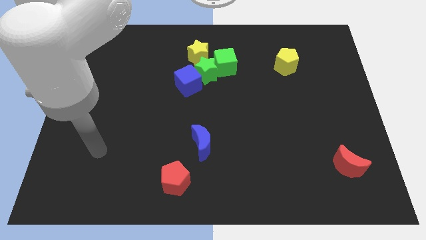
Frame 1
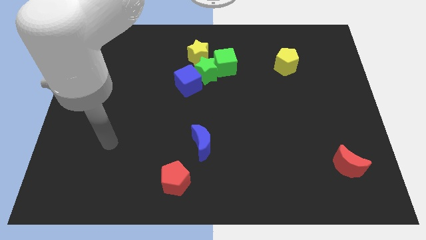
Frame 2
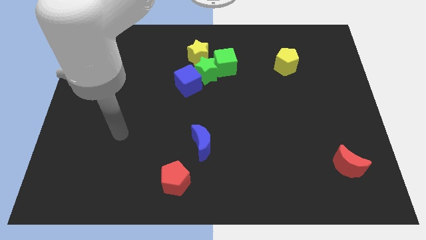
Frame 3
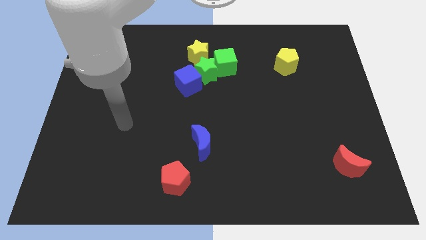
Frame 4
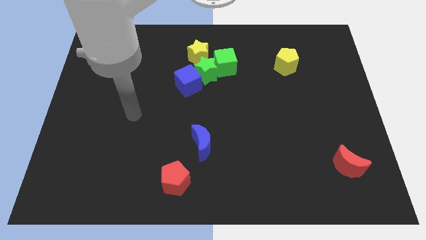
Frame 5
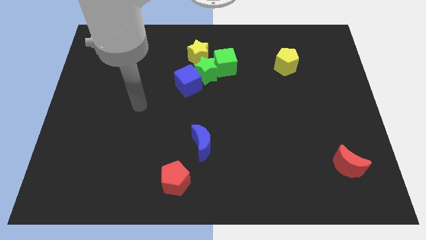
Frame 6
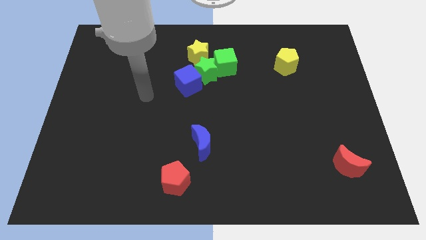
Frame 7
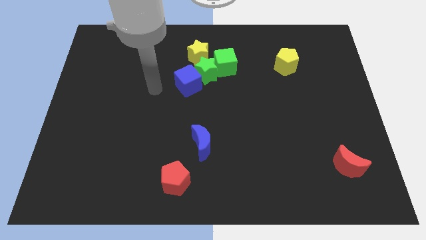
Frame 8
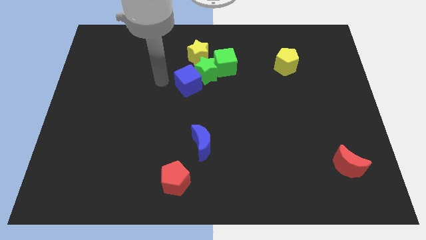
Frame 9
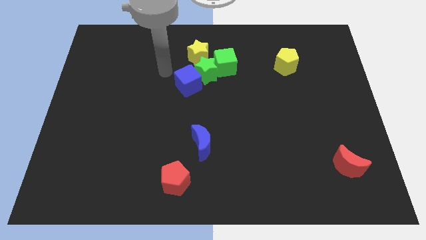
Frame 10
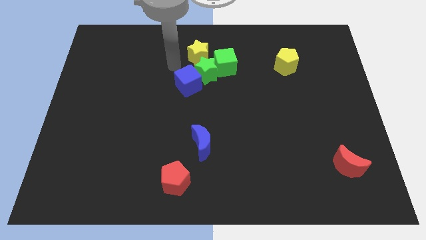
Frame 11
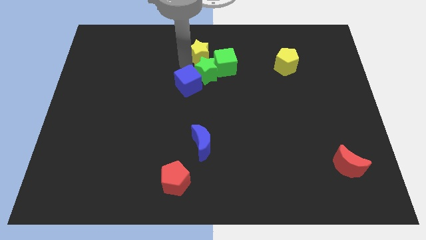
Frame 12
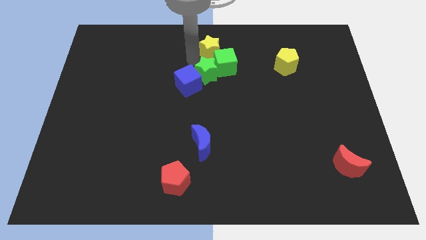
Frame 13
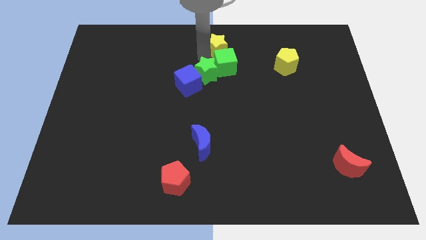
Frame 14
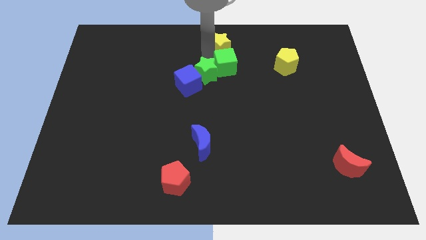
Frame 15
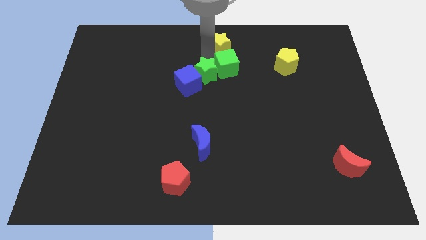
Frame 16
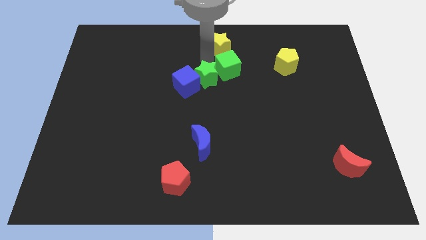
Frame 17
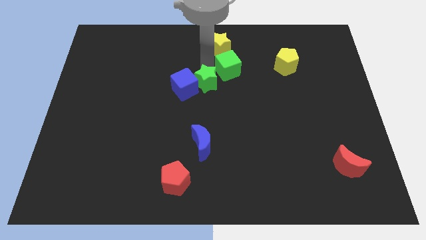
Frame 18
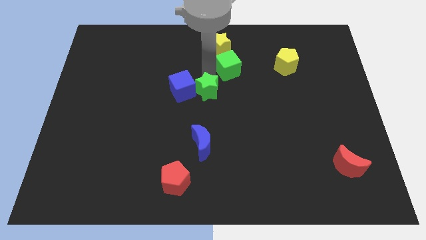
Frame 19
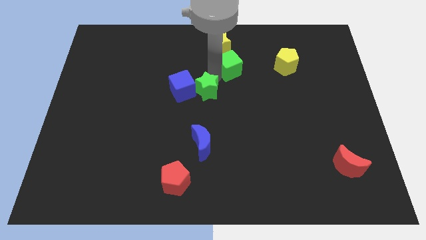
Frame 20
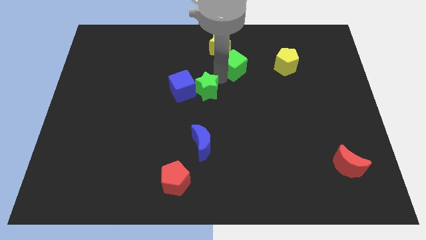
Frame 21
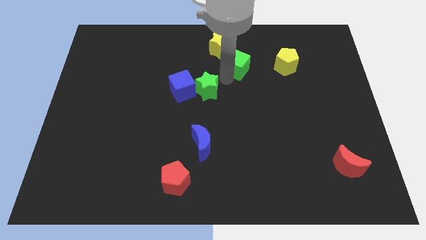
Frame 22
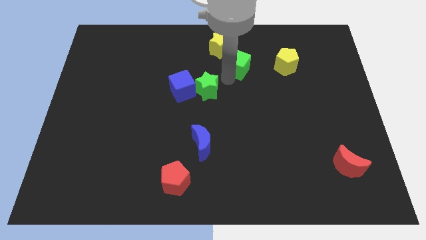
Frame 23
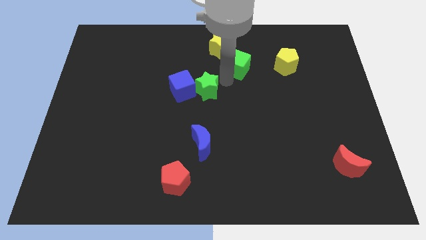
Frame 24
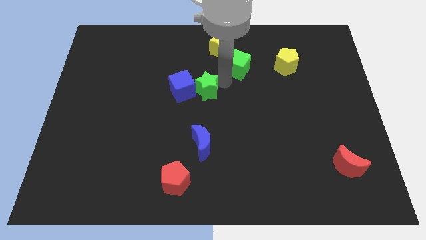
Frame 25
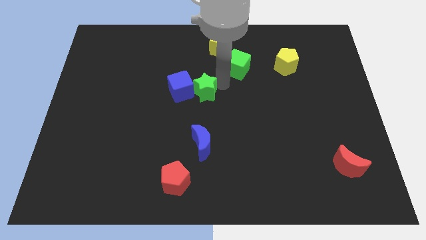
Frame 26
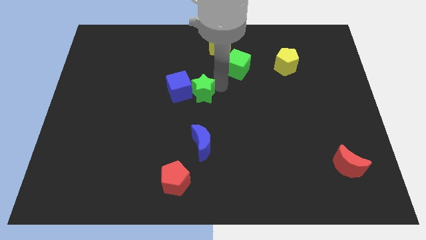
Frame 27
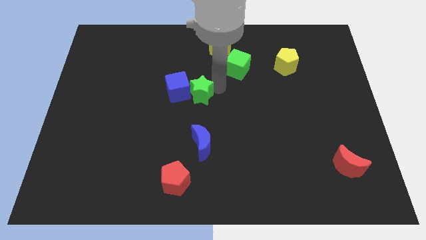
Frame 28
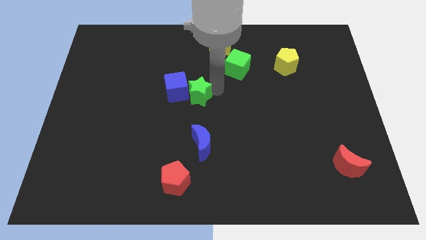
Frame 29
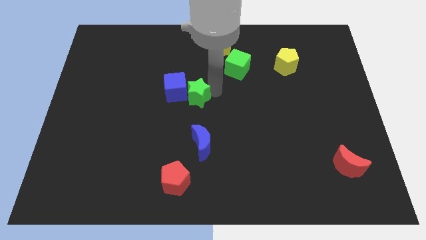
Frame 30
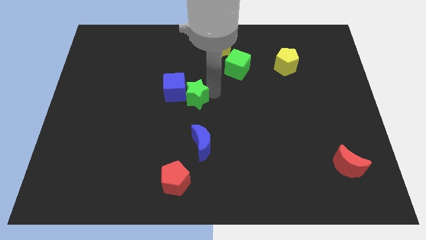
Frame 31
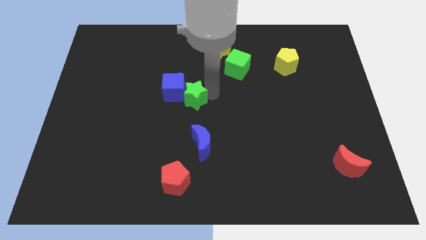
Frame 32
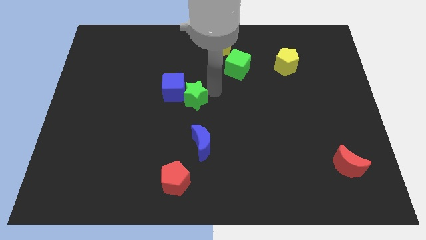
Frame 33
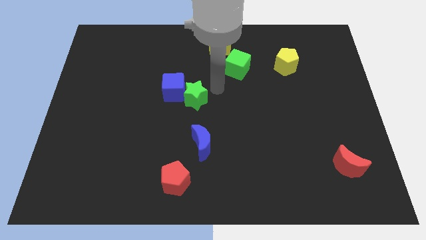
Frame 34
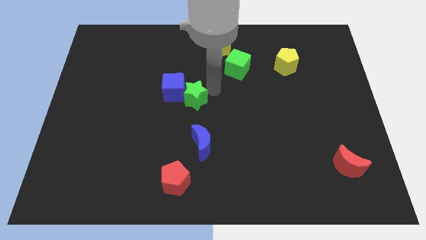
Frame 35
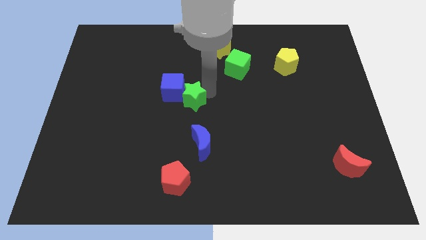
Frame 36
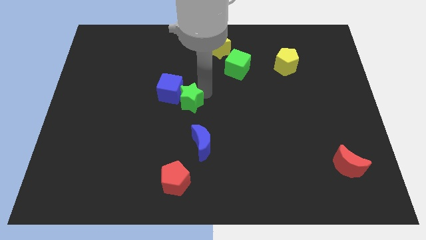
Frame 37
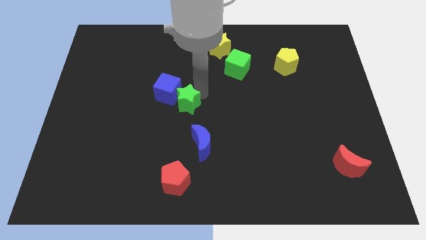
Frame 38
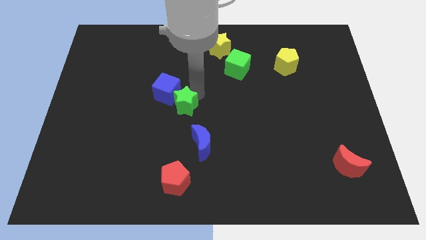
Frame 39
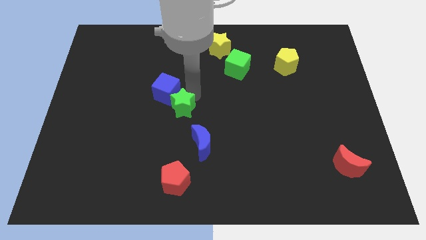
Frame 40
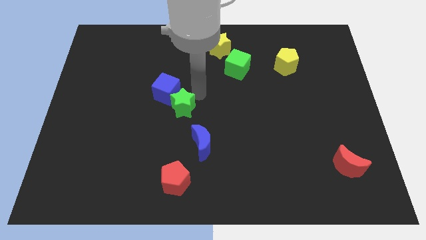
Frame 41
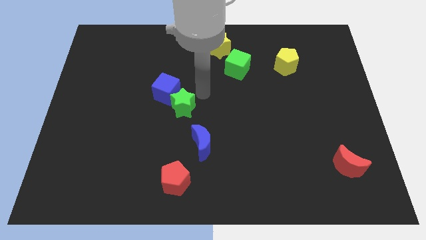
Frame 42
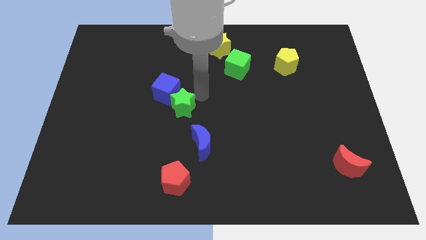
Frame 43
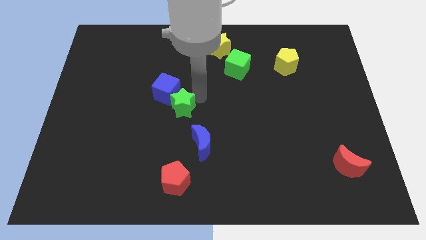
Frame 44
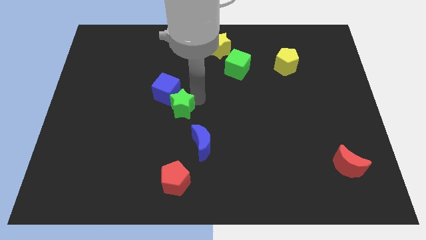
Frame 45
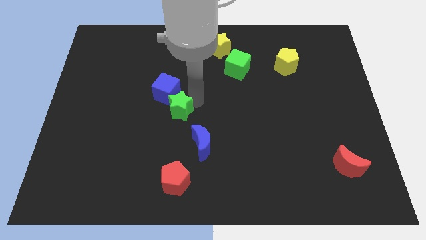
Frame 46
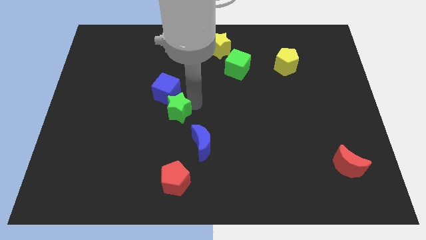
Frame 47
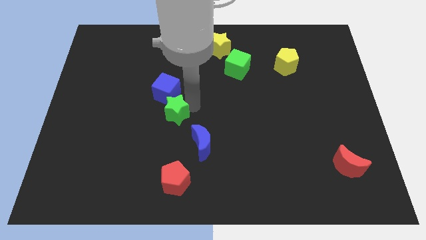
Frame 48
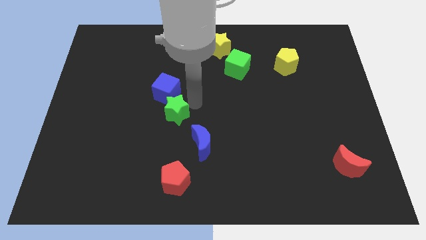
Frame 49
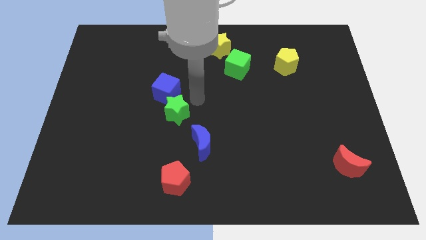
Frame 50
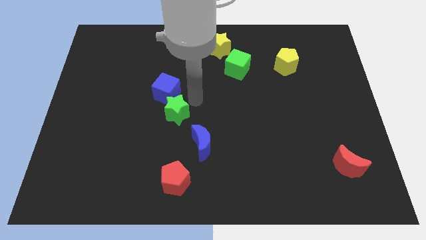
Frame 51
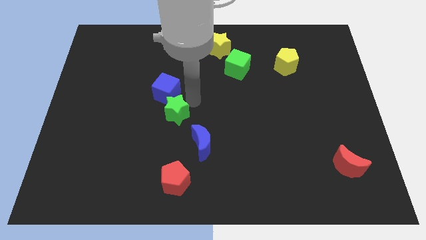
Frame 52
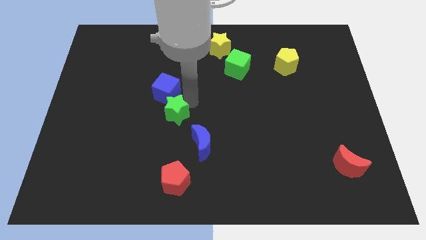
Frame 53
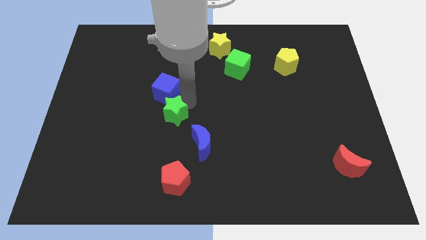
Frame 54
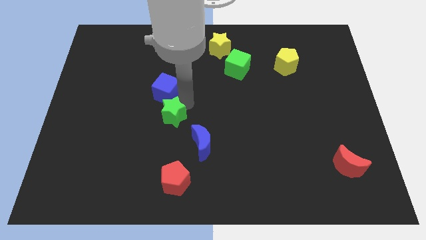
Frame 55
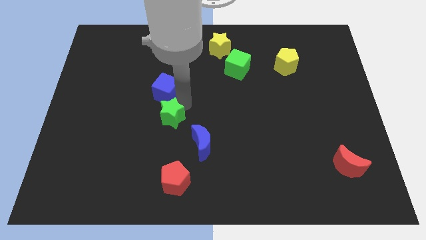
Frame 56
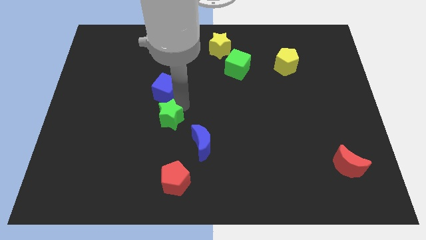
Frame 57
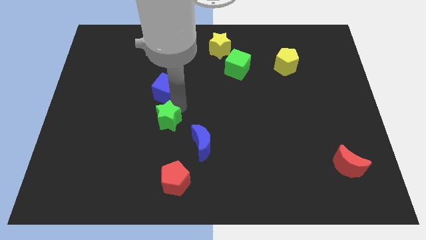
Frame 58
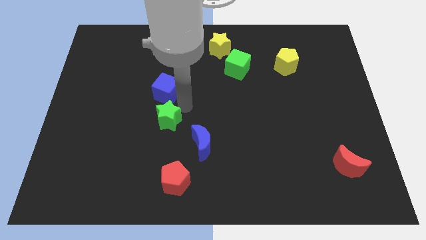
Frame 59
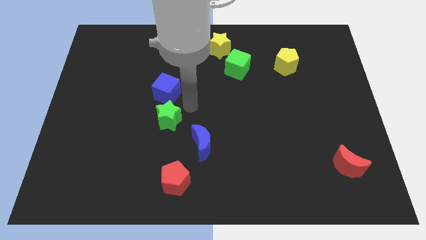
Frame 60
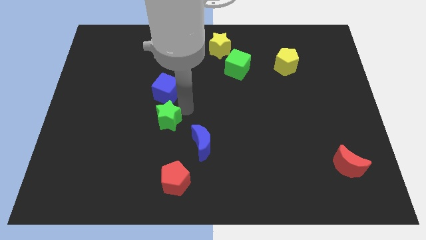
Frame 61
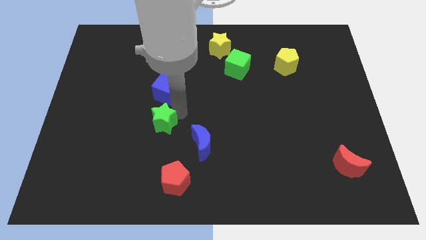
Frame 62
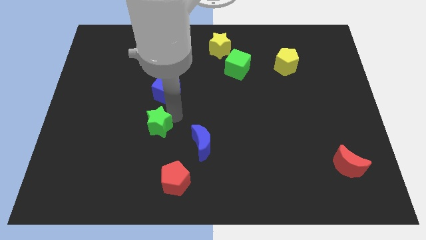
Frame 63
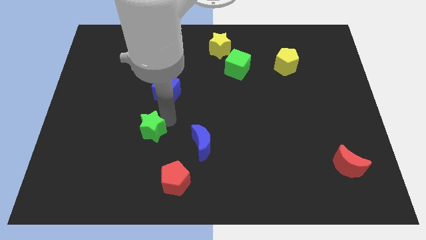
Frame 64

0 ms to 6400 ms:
slide the green star down and left

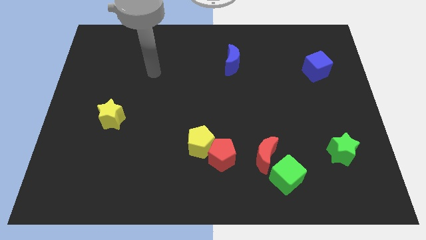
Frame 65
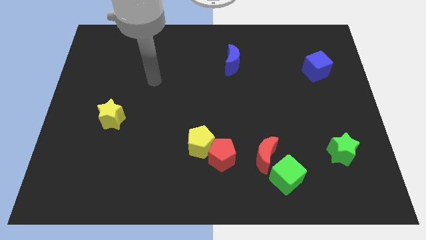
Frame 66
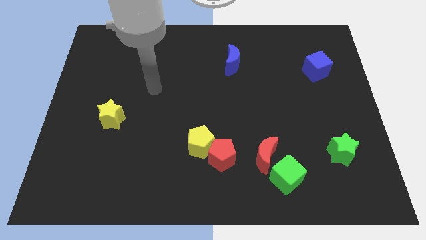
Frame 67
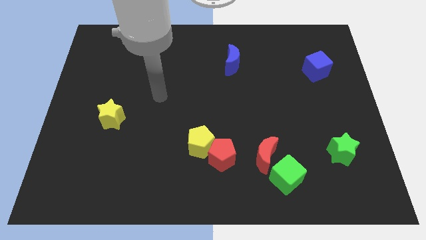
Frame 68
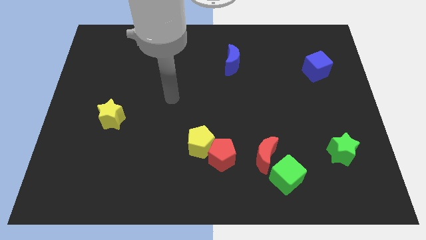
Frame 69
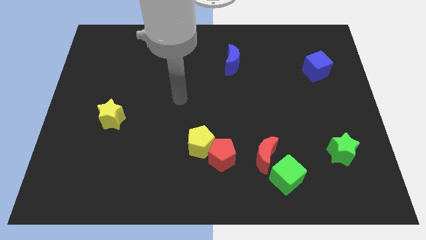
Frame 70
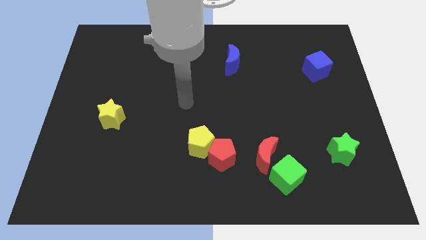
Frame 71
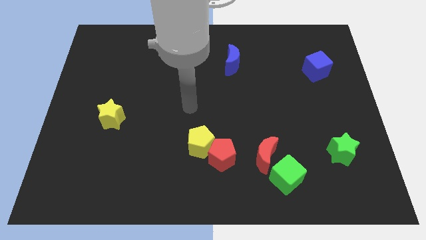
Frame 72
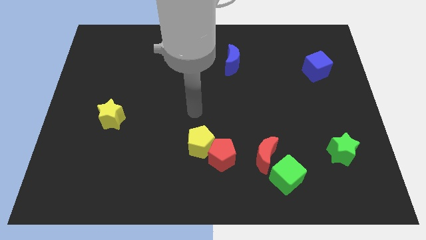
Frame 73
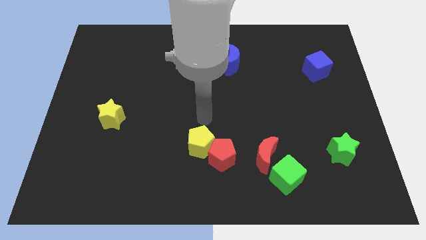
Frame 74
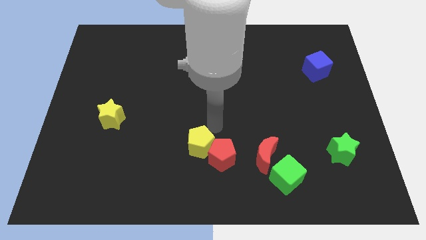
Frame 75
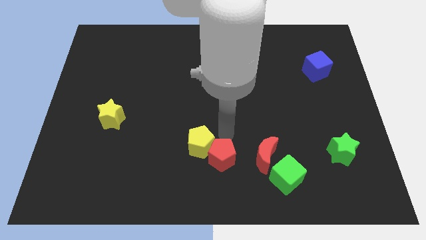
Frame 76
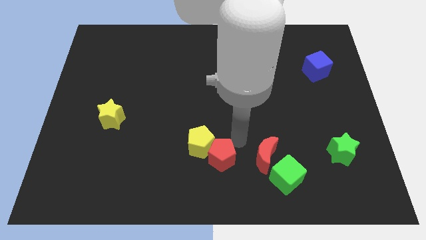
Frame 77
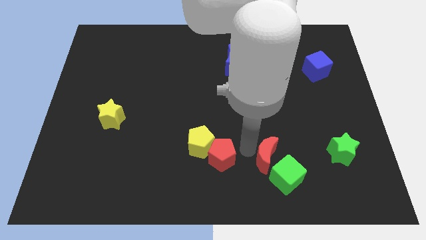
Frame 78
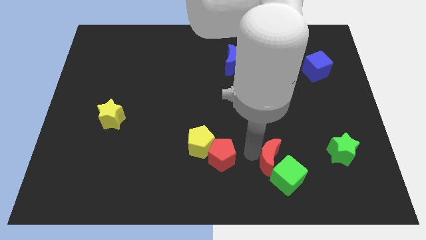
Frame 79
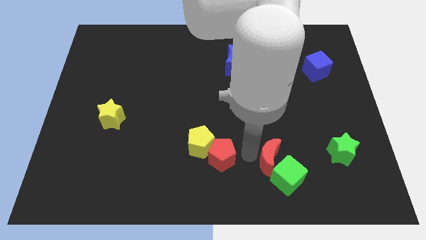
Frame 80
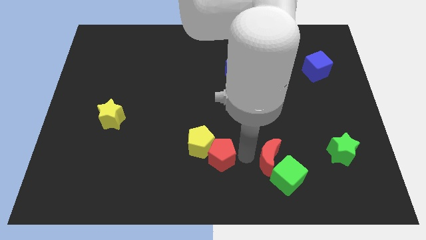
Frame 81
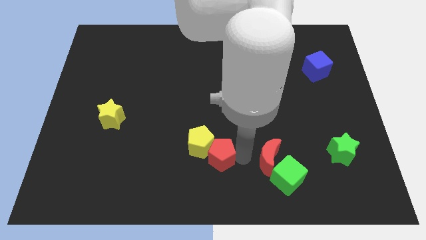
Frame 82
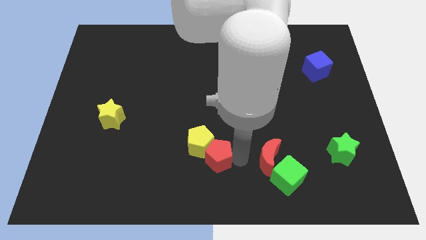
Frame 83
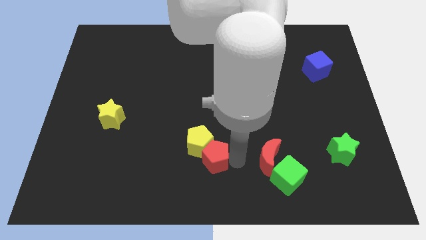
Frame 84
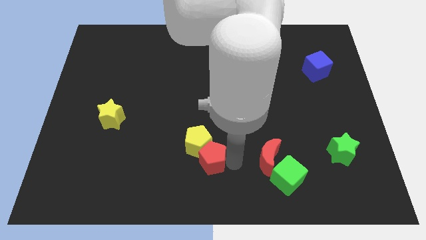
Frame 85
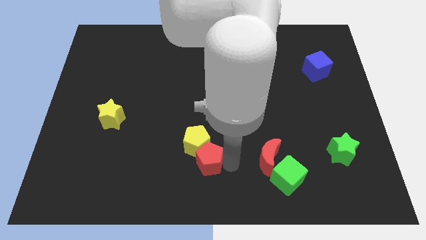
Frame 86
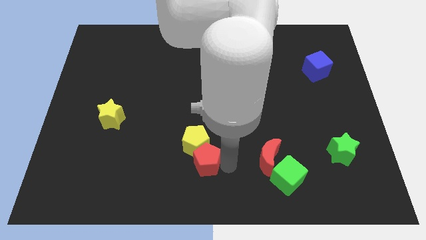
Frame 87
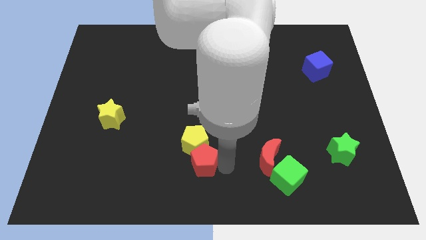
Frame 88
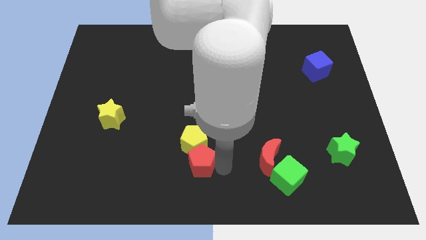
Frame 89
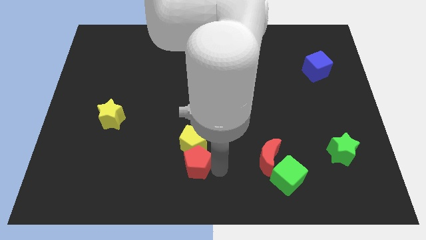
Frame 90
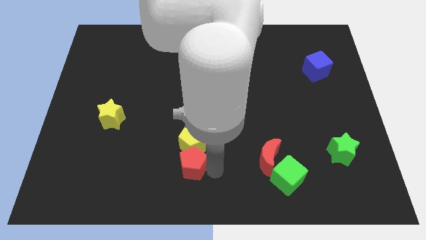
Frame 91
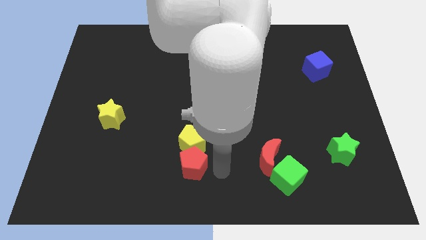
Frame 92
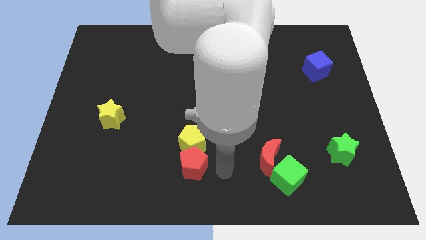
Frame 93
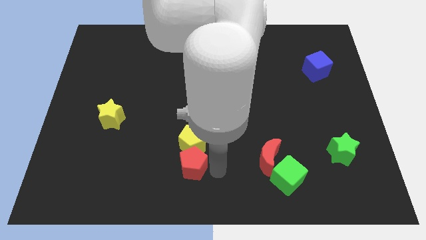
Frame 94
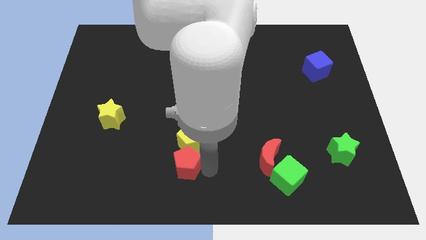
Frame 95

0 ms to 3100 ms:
slightly slide the red pentagon left
